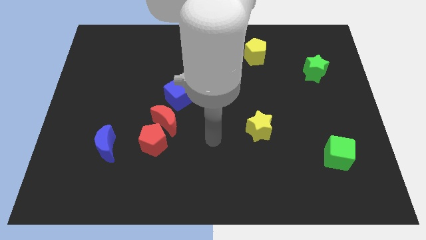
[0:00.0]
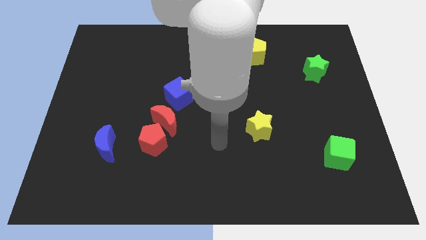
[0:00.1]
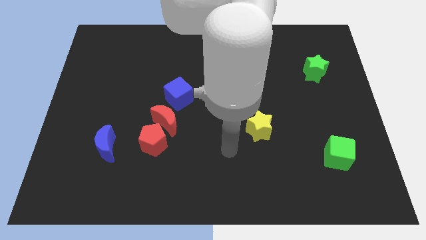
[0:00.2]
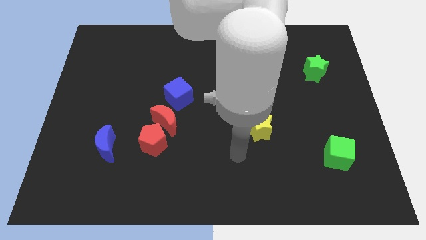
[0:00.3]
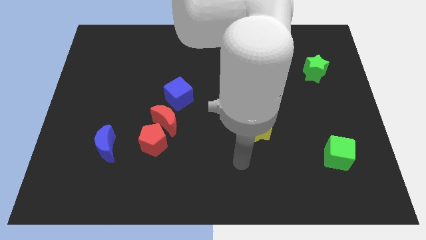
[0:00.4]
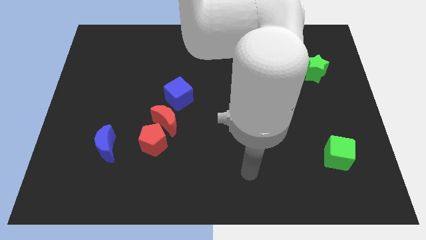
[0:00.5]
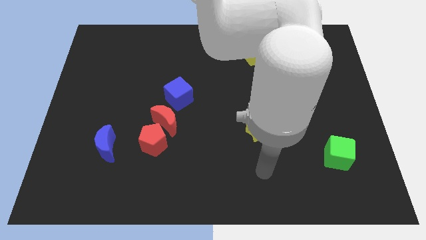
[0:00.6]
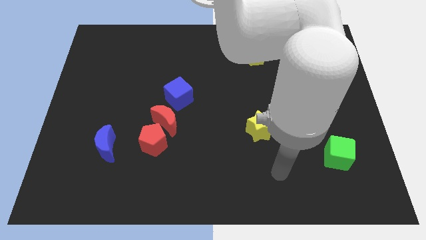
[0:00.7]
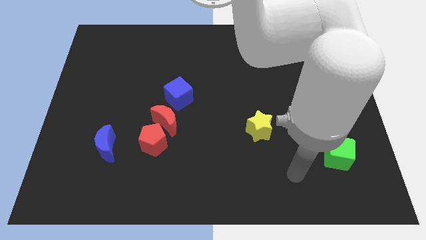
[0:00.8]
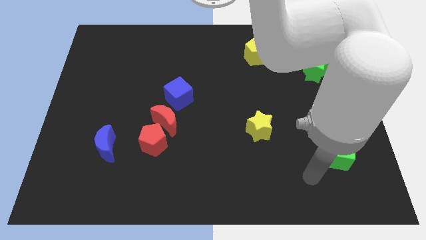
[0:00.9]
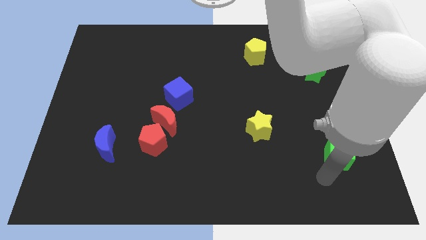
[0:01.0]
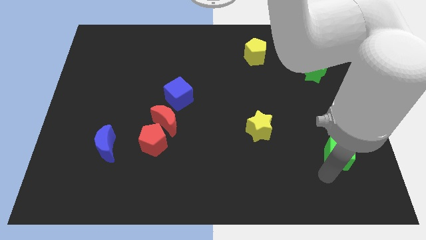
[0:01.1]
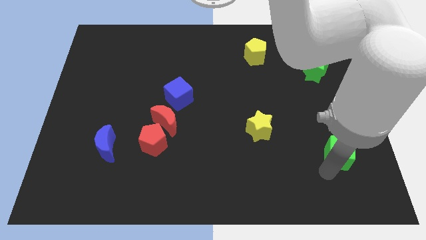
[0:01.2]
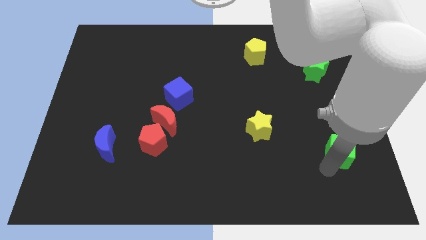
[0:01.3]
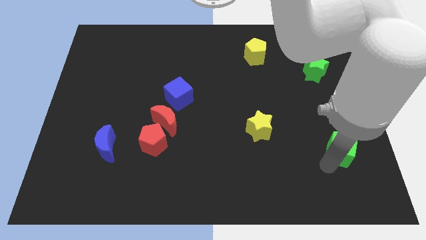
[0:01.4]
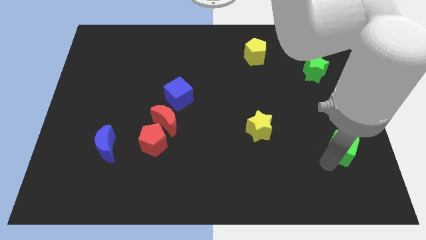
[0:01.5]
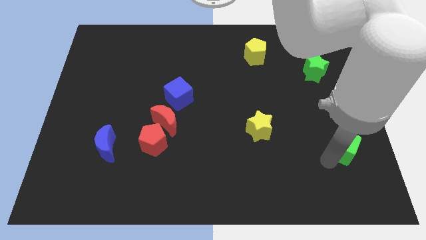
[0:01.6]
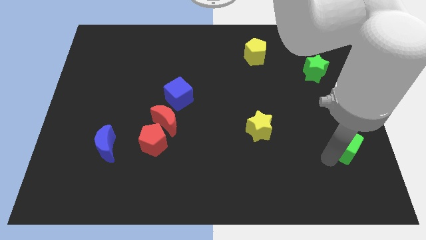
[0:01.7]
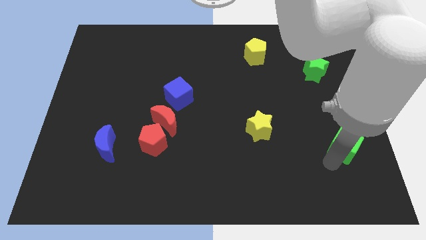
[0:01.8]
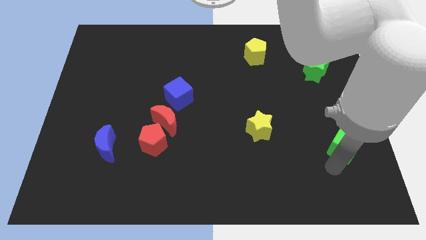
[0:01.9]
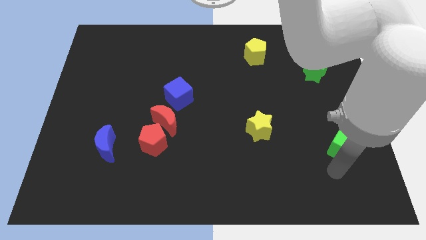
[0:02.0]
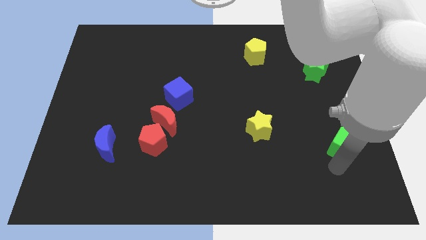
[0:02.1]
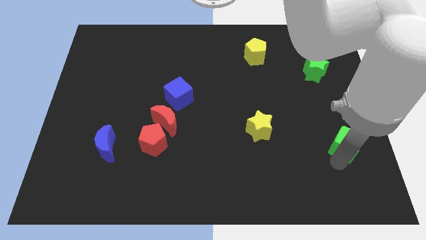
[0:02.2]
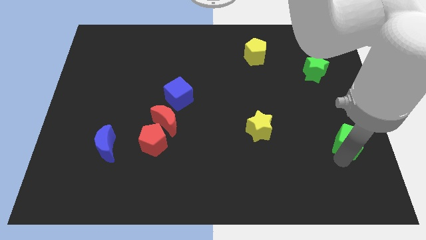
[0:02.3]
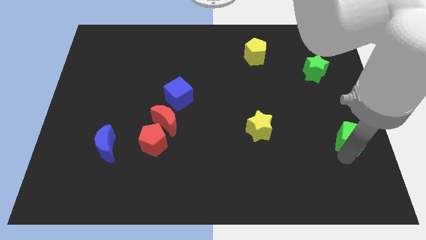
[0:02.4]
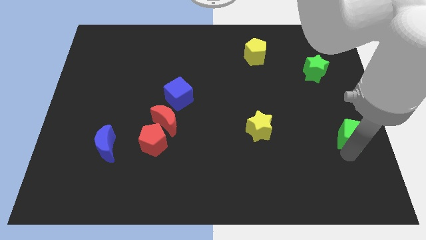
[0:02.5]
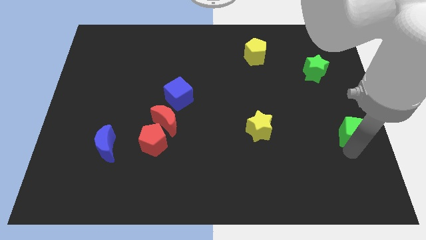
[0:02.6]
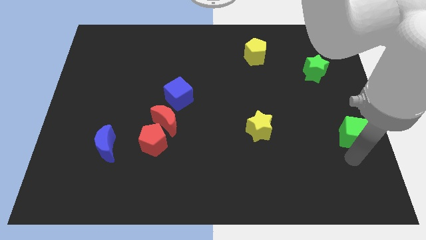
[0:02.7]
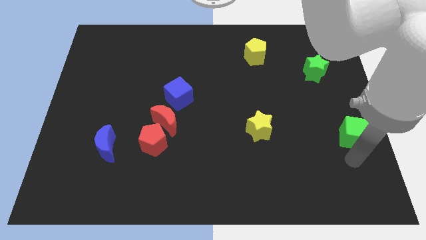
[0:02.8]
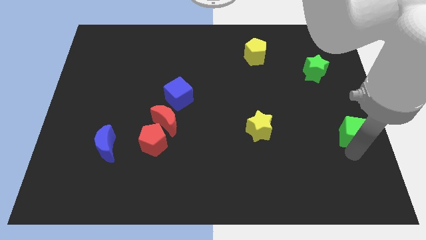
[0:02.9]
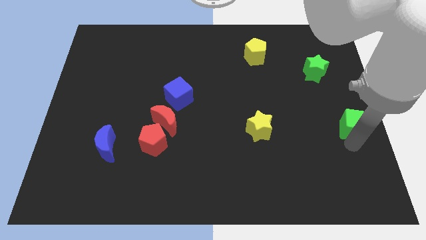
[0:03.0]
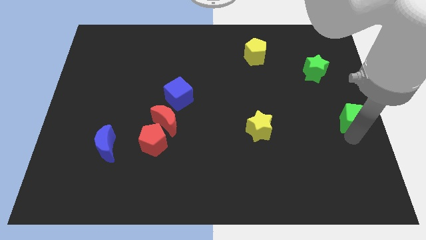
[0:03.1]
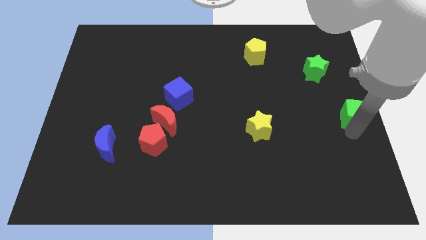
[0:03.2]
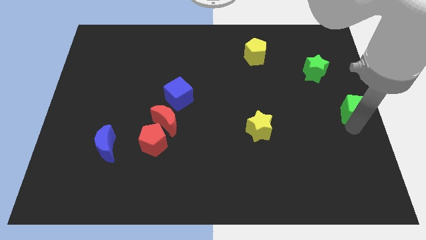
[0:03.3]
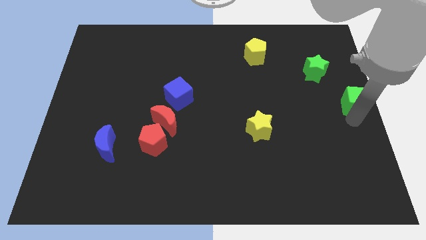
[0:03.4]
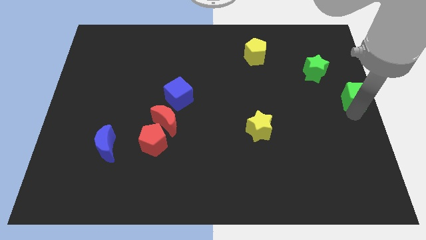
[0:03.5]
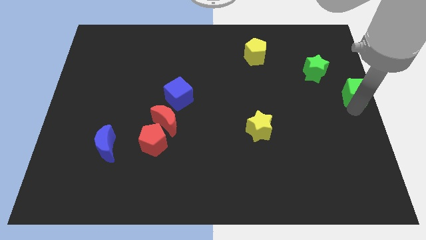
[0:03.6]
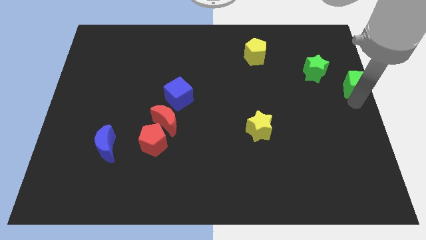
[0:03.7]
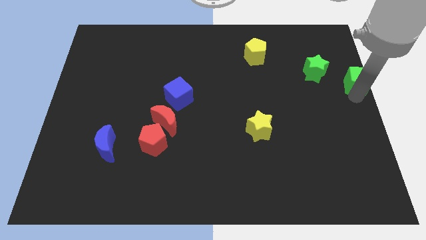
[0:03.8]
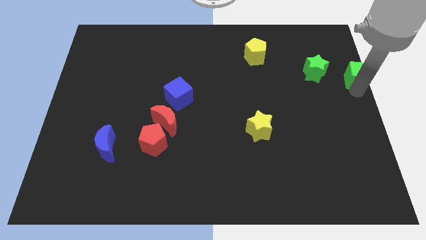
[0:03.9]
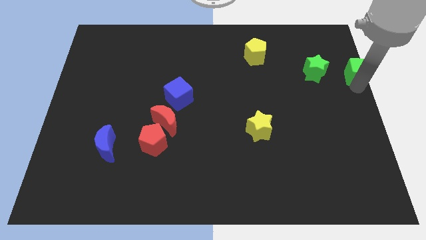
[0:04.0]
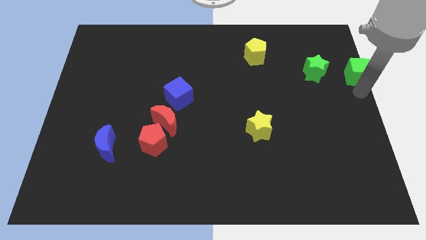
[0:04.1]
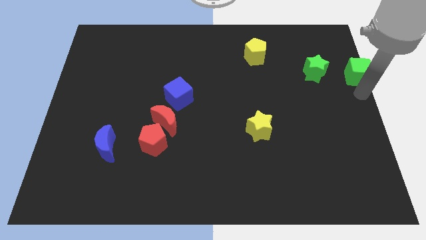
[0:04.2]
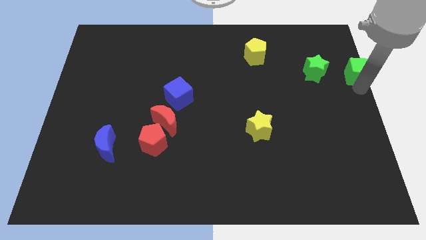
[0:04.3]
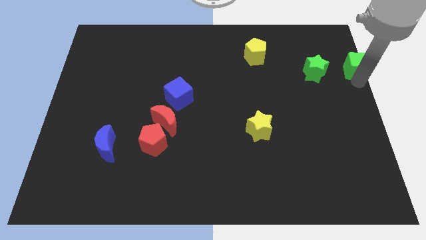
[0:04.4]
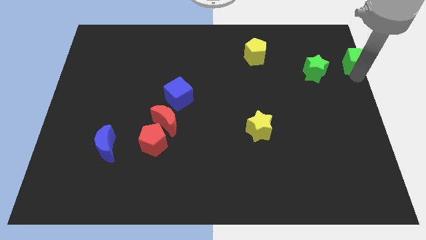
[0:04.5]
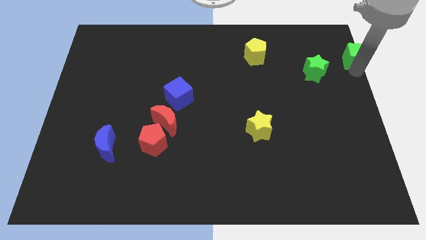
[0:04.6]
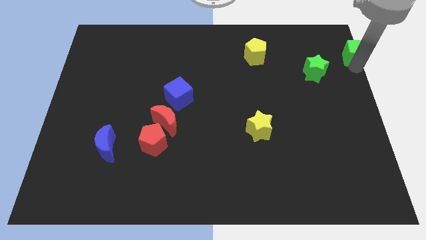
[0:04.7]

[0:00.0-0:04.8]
put the green cube to the top right of the board

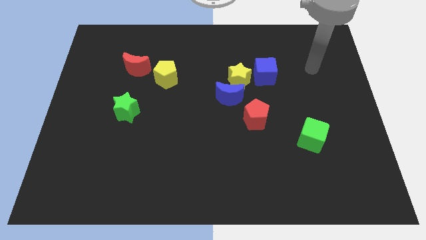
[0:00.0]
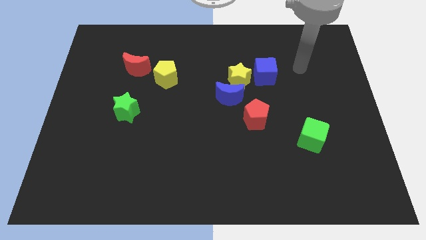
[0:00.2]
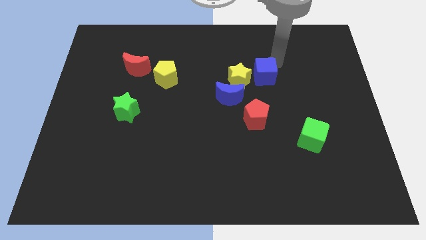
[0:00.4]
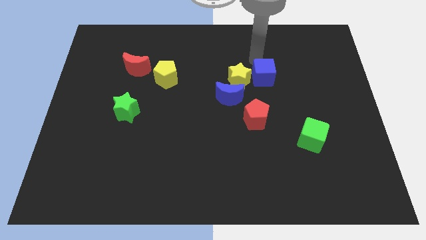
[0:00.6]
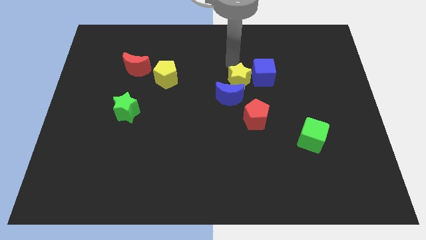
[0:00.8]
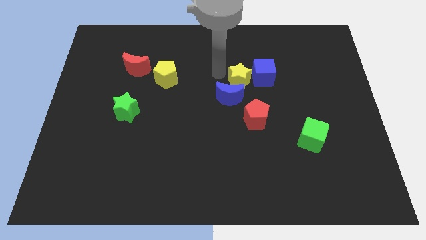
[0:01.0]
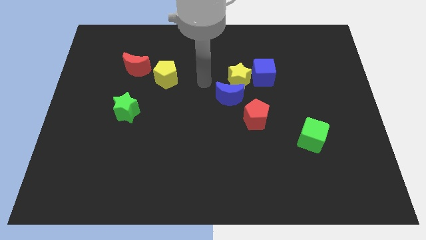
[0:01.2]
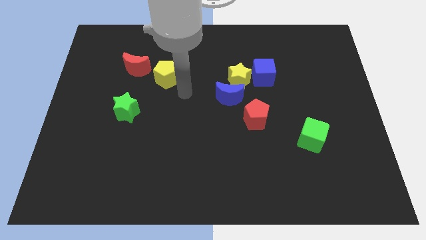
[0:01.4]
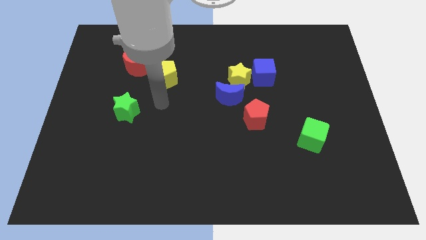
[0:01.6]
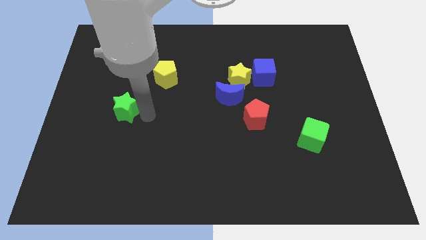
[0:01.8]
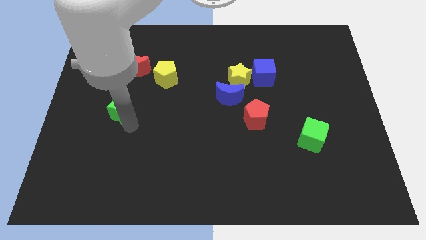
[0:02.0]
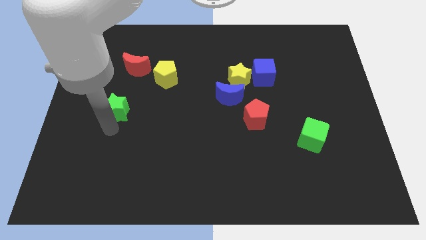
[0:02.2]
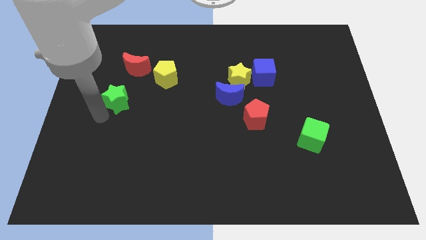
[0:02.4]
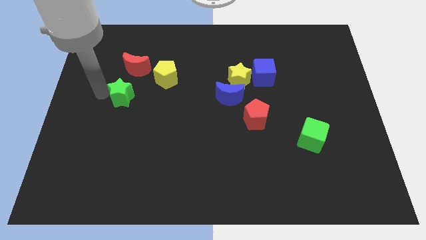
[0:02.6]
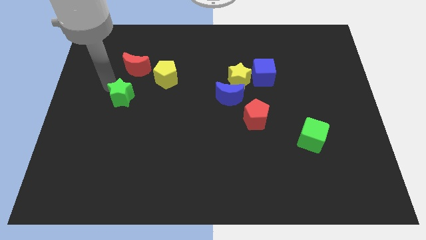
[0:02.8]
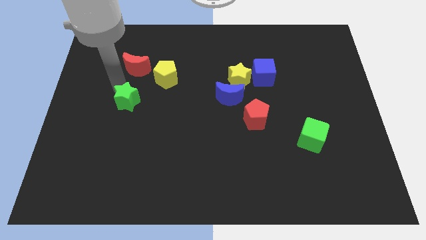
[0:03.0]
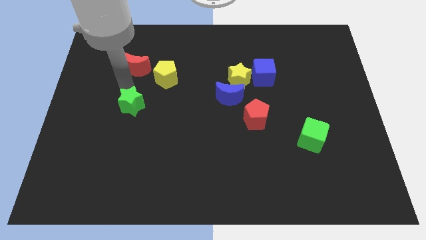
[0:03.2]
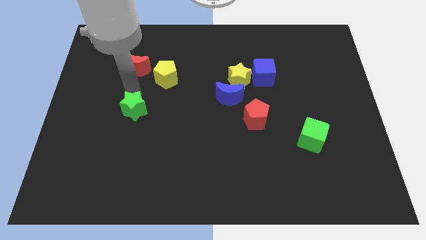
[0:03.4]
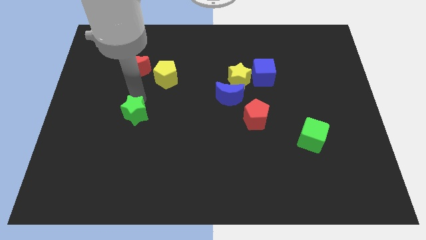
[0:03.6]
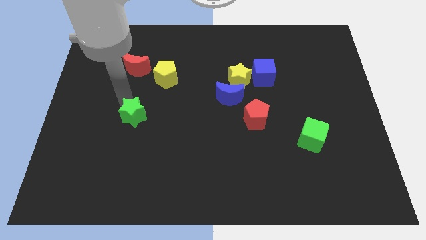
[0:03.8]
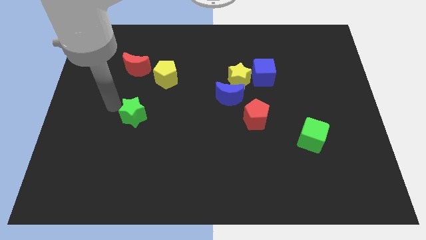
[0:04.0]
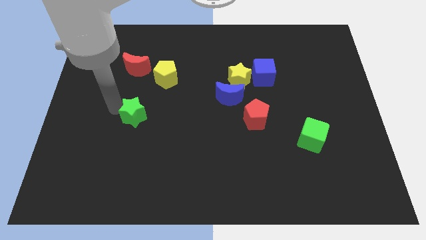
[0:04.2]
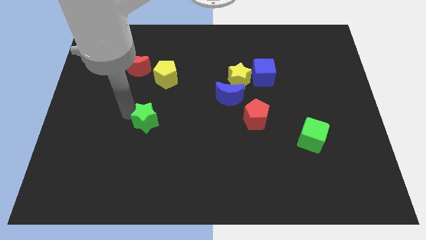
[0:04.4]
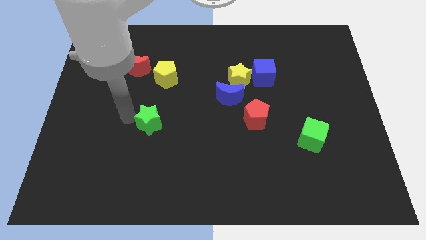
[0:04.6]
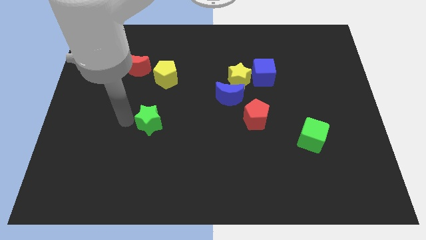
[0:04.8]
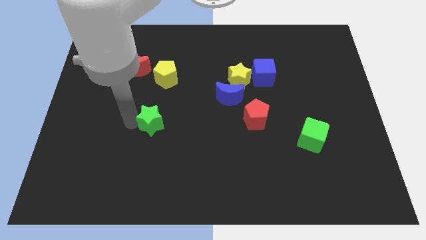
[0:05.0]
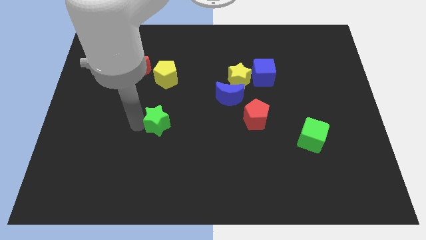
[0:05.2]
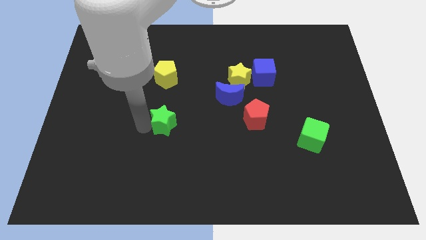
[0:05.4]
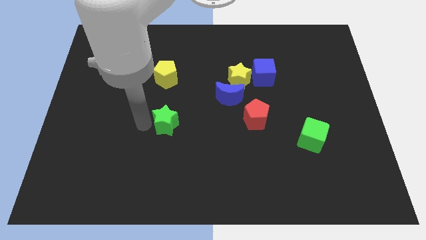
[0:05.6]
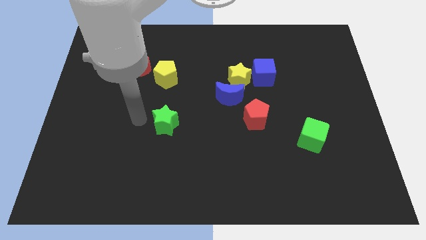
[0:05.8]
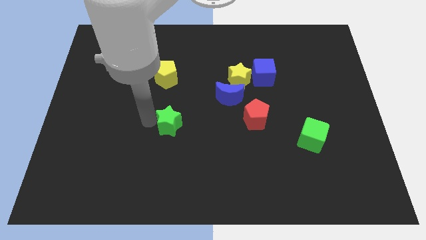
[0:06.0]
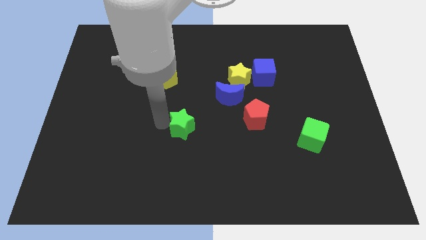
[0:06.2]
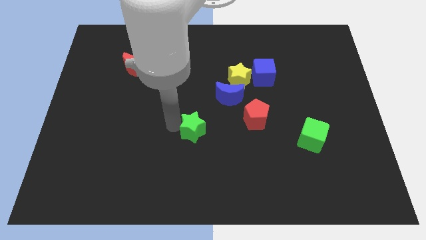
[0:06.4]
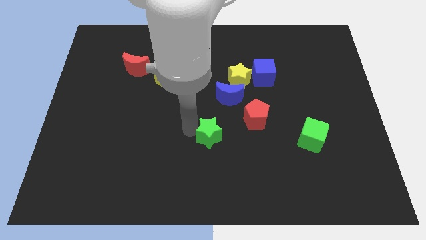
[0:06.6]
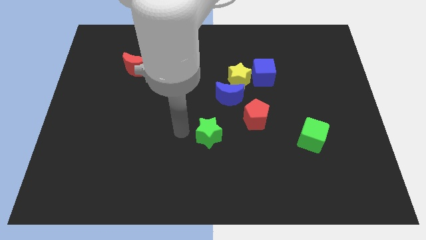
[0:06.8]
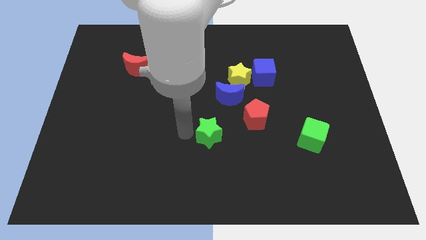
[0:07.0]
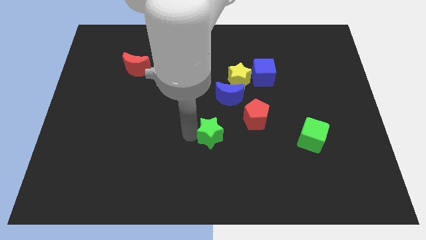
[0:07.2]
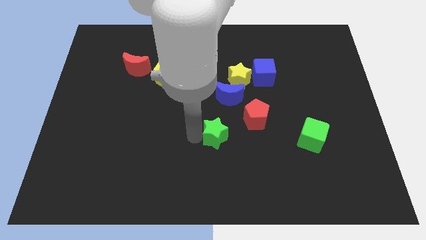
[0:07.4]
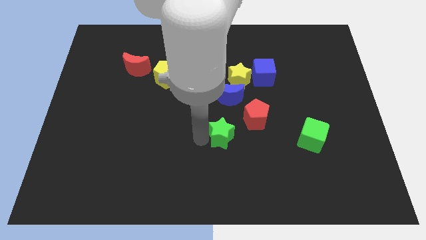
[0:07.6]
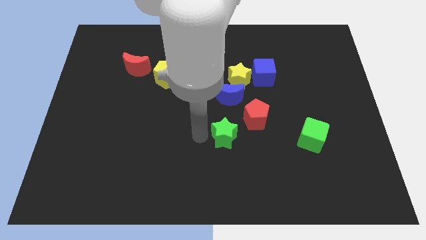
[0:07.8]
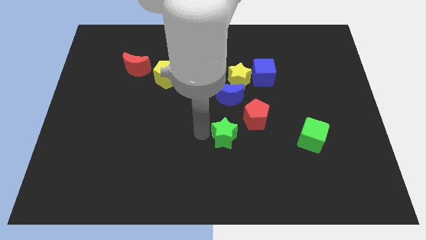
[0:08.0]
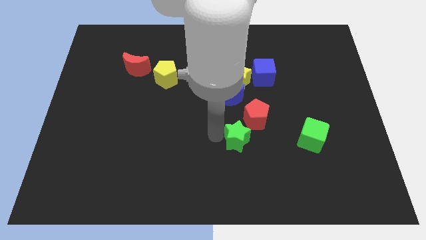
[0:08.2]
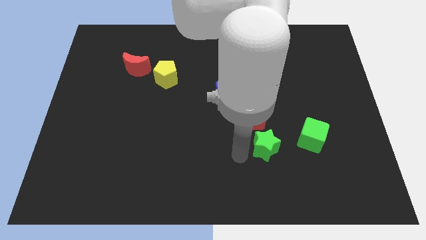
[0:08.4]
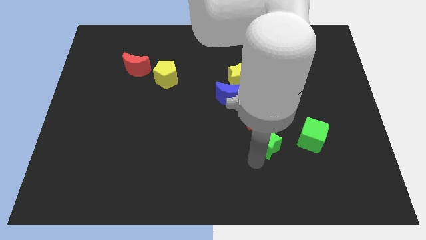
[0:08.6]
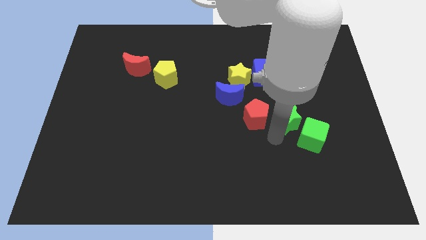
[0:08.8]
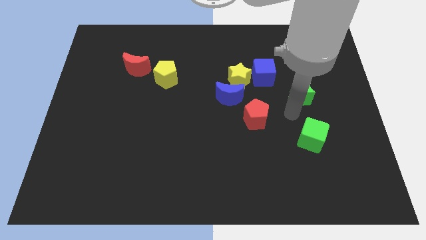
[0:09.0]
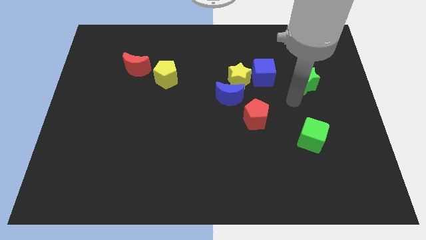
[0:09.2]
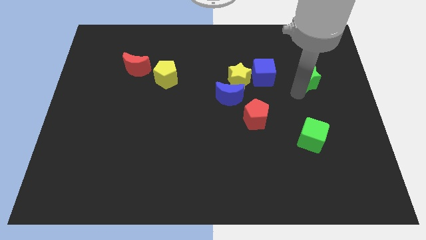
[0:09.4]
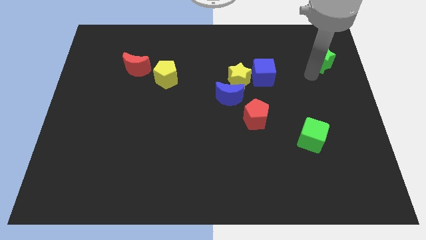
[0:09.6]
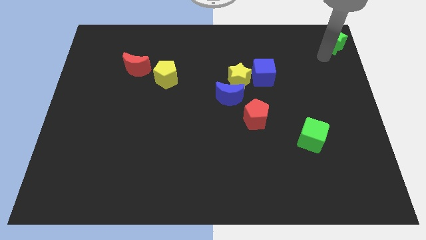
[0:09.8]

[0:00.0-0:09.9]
slide the green star to the upper right corner
